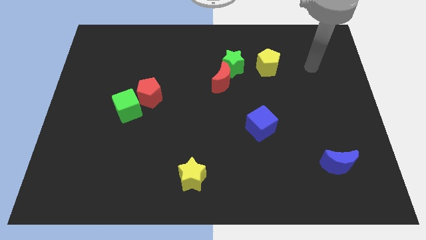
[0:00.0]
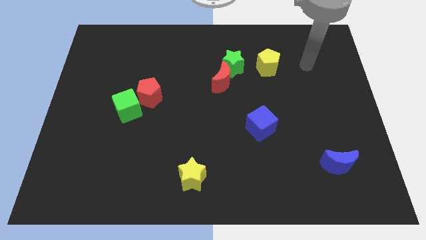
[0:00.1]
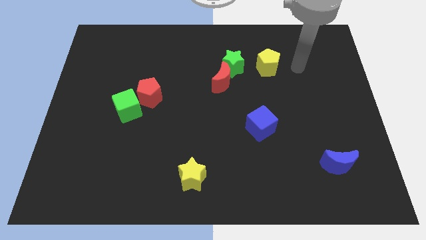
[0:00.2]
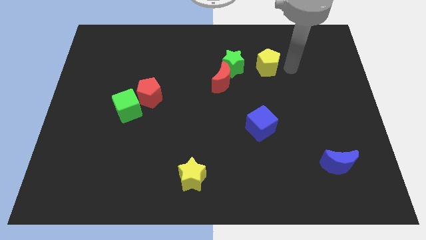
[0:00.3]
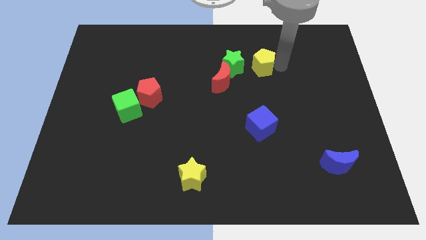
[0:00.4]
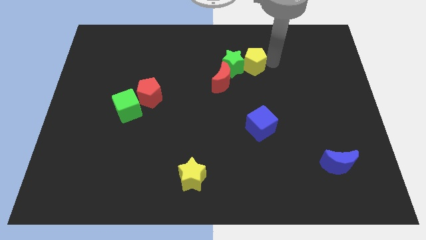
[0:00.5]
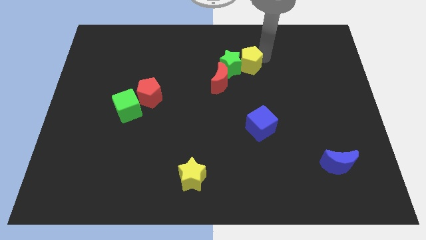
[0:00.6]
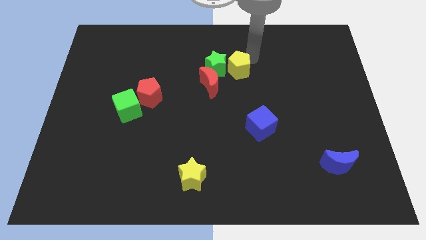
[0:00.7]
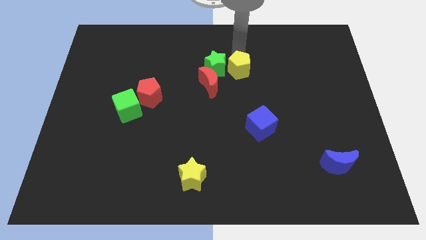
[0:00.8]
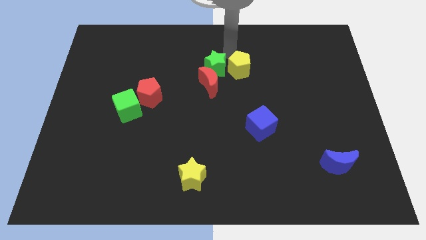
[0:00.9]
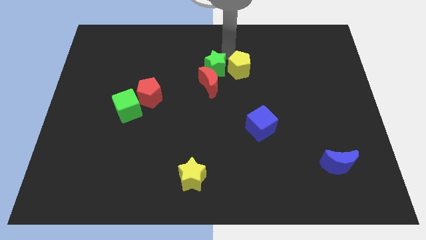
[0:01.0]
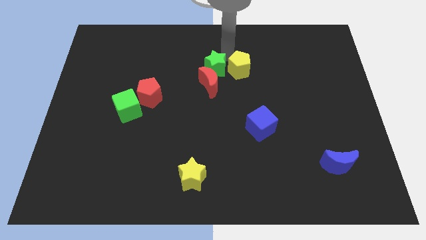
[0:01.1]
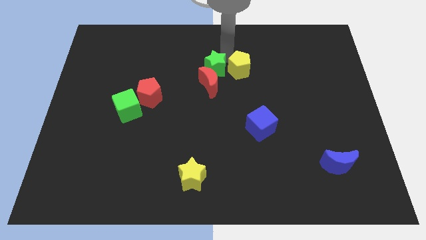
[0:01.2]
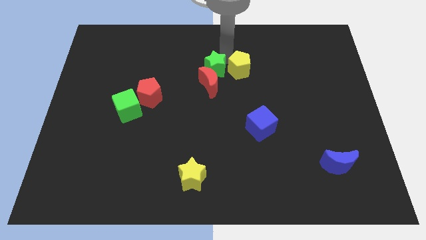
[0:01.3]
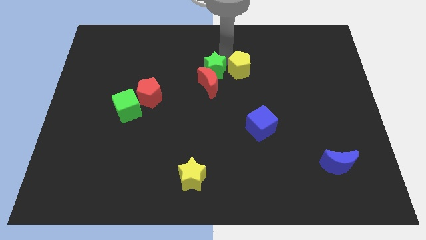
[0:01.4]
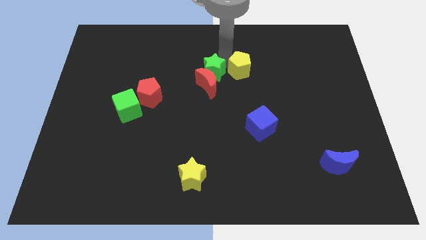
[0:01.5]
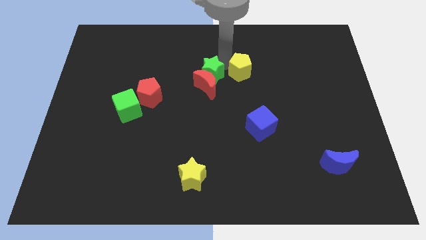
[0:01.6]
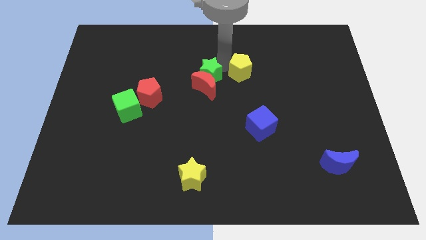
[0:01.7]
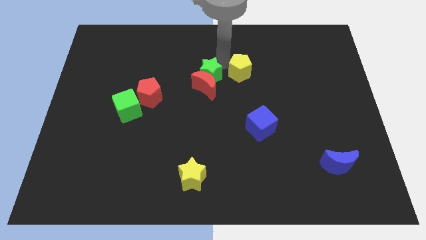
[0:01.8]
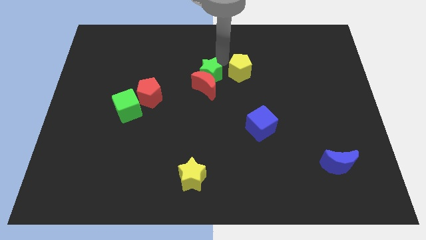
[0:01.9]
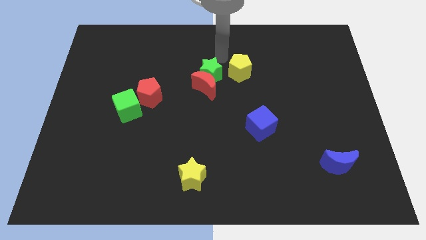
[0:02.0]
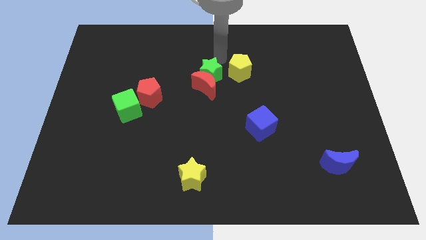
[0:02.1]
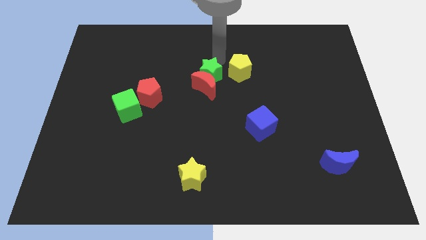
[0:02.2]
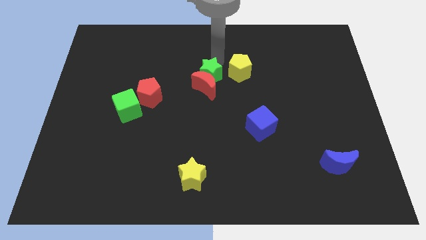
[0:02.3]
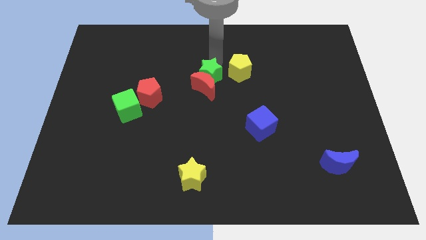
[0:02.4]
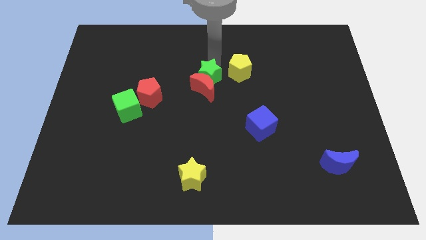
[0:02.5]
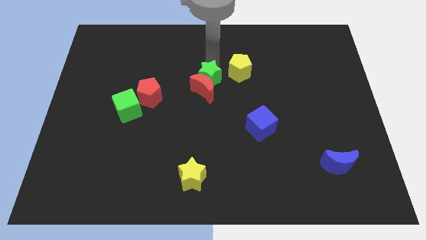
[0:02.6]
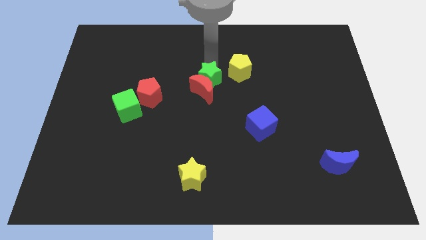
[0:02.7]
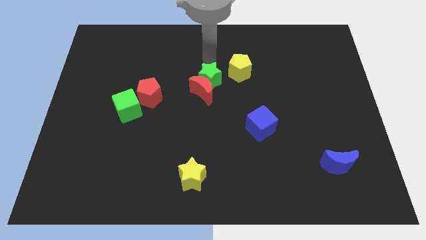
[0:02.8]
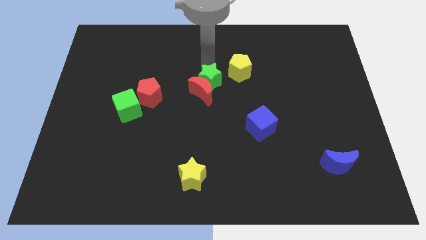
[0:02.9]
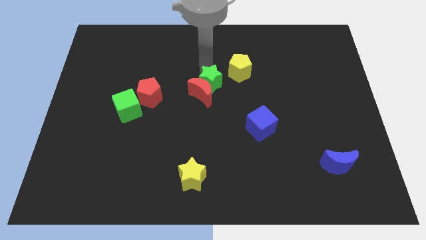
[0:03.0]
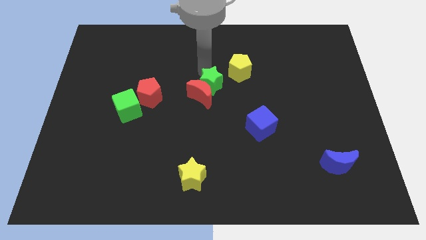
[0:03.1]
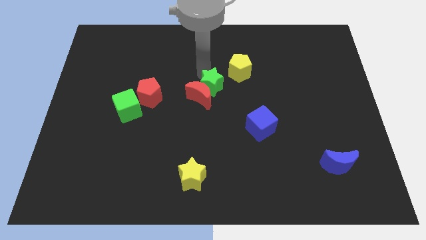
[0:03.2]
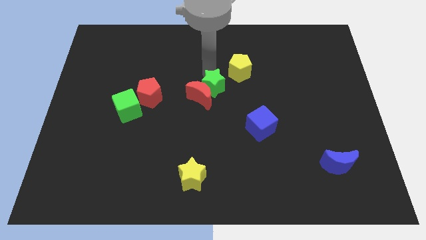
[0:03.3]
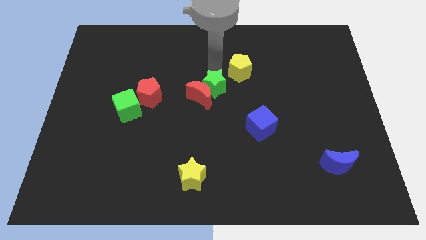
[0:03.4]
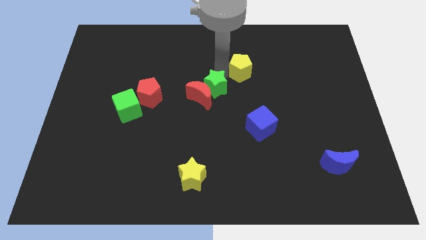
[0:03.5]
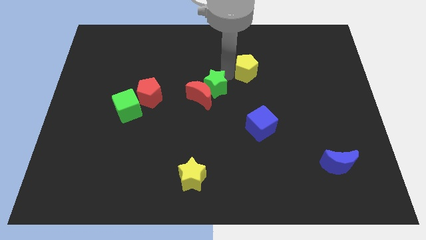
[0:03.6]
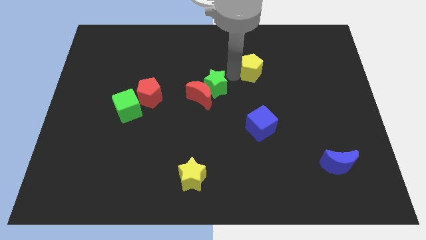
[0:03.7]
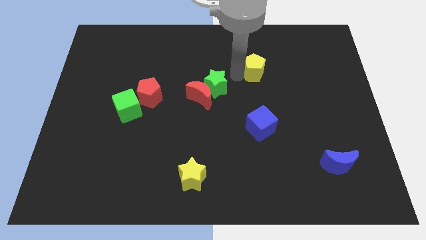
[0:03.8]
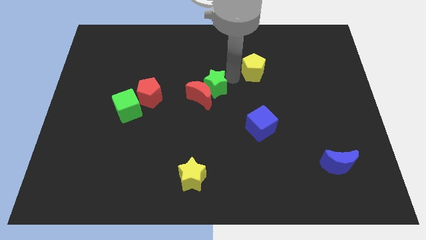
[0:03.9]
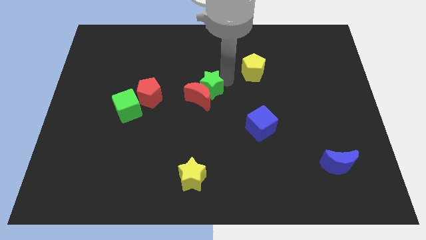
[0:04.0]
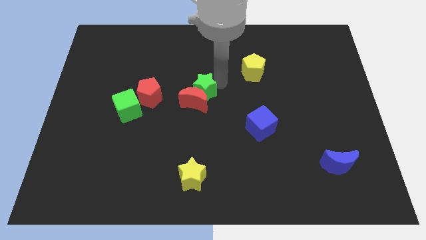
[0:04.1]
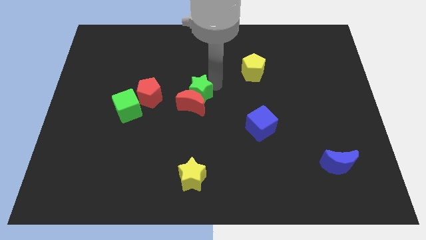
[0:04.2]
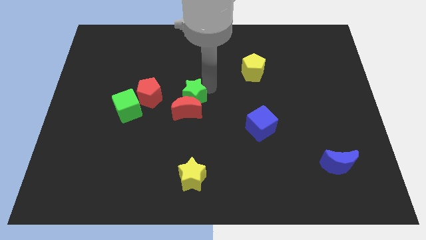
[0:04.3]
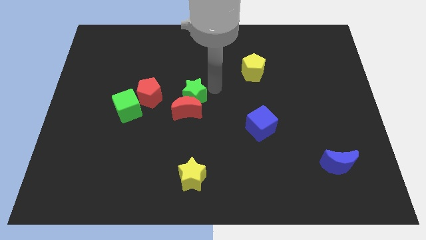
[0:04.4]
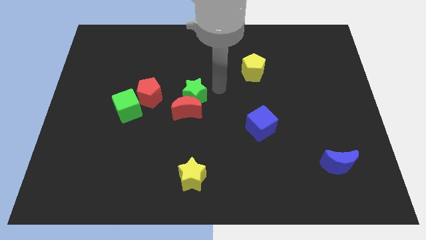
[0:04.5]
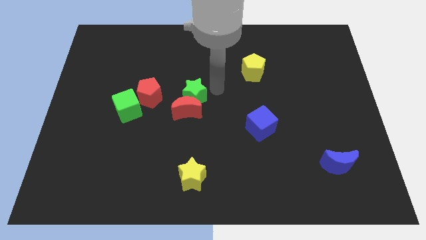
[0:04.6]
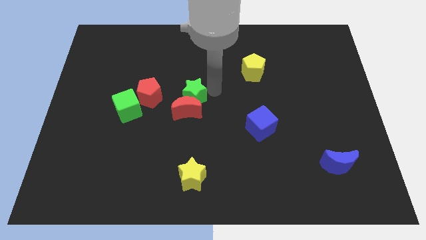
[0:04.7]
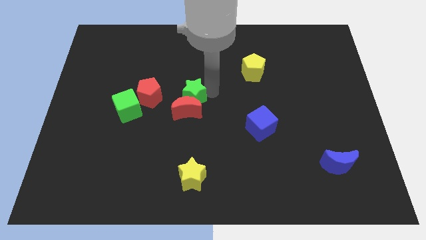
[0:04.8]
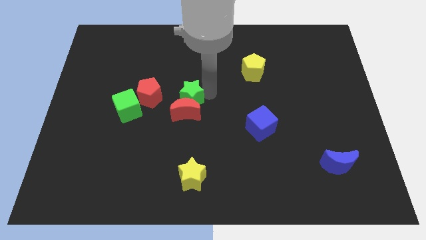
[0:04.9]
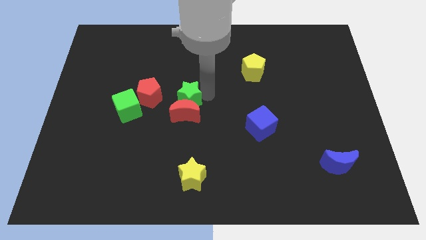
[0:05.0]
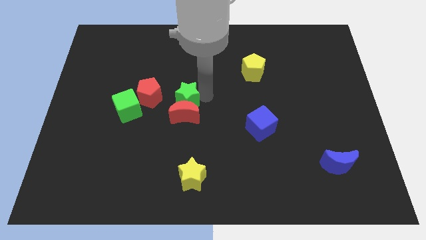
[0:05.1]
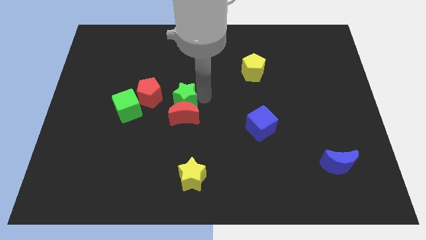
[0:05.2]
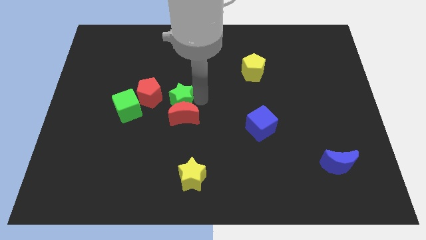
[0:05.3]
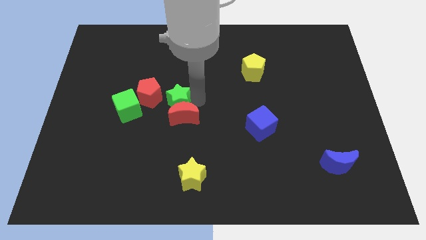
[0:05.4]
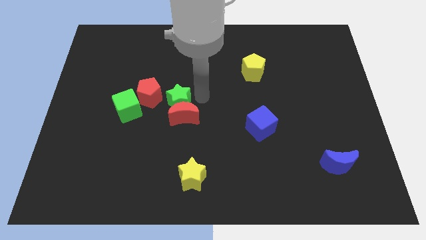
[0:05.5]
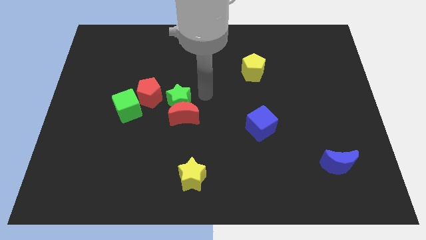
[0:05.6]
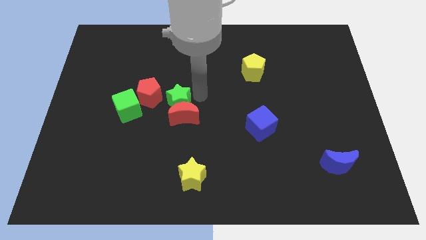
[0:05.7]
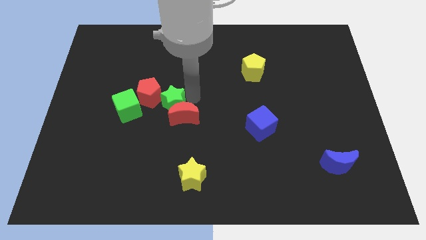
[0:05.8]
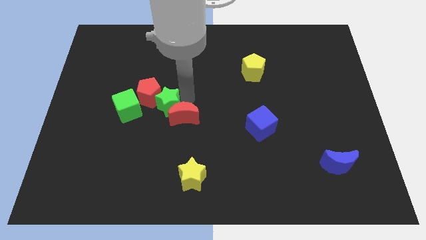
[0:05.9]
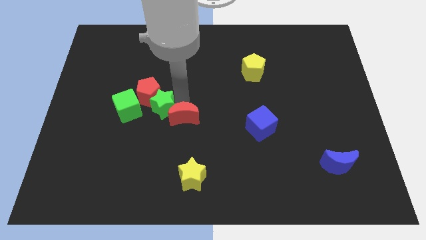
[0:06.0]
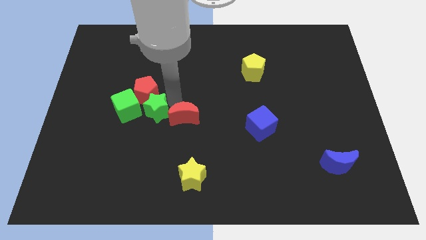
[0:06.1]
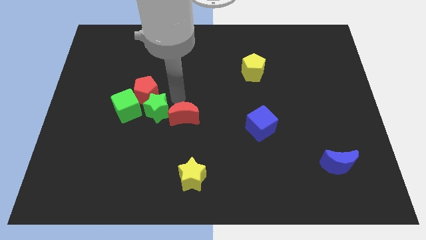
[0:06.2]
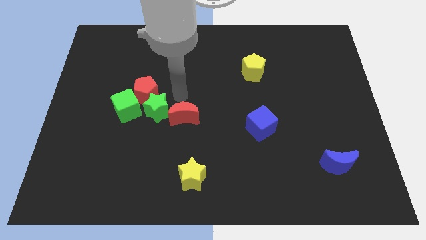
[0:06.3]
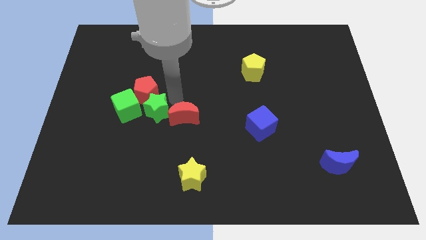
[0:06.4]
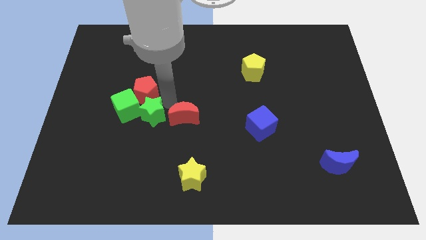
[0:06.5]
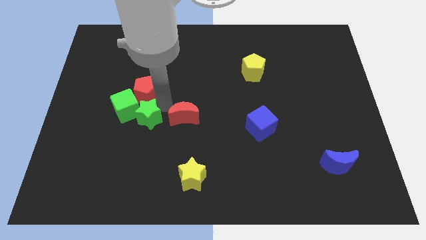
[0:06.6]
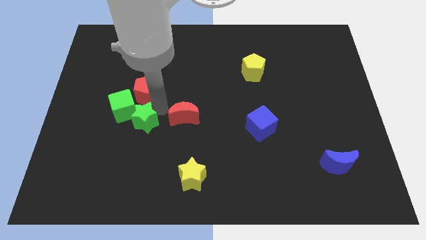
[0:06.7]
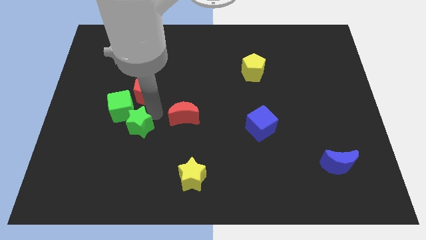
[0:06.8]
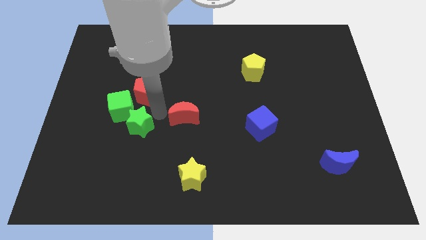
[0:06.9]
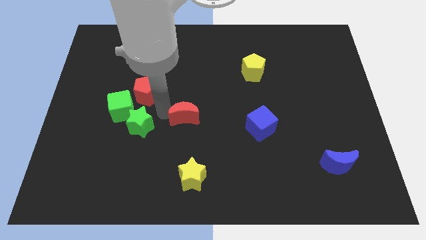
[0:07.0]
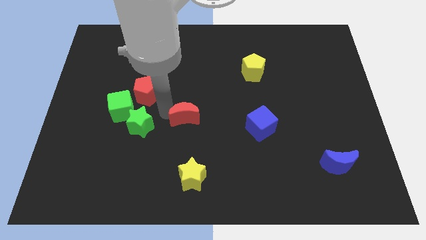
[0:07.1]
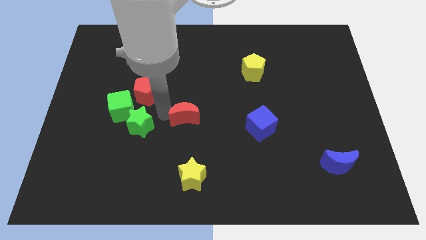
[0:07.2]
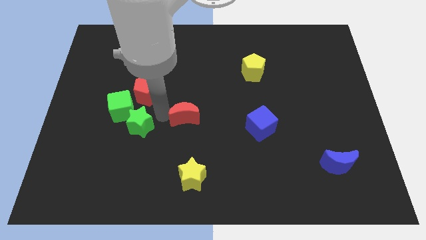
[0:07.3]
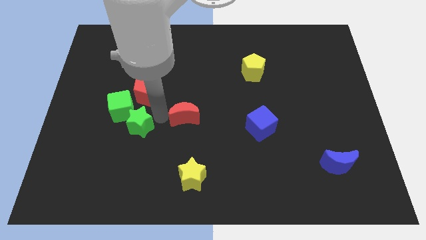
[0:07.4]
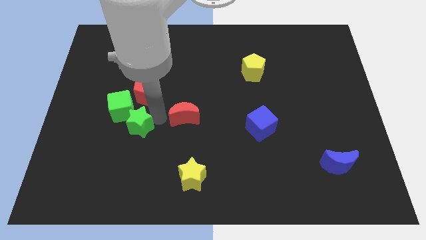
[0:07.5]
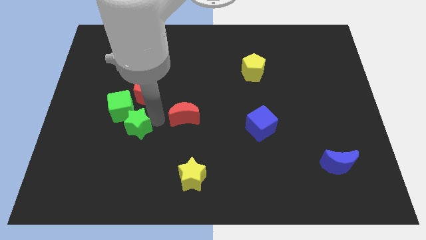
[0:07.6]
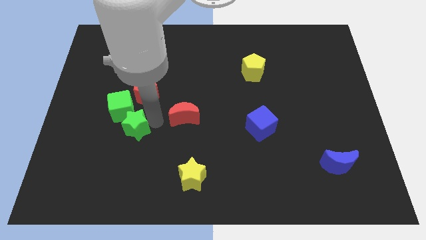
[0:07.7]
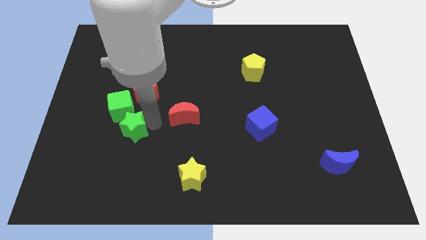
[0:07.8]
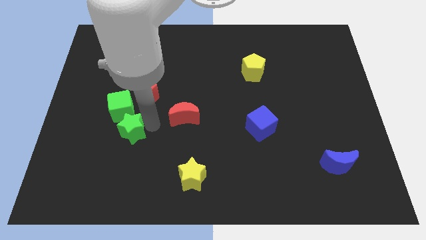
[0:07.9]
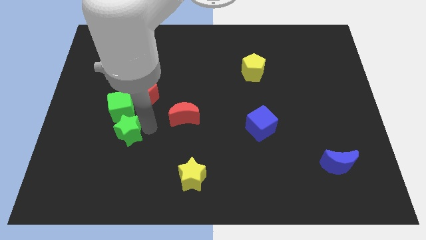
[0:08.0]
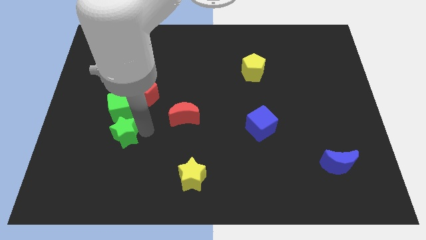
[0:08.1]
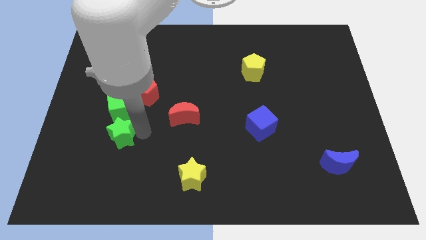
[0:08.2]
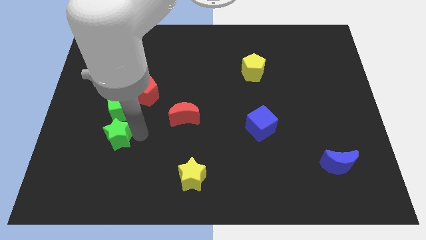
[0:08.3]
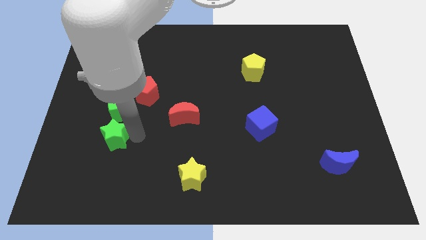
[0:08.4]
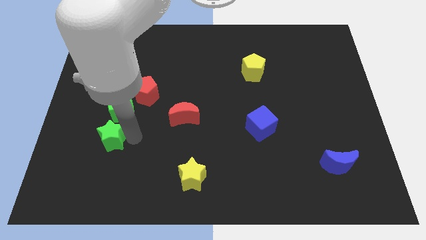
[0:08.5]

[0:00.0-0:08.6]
slide the green star diagonally down and to the left of the green cube
